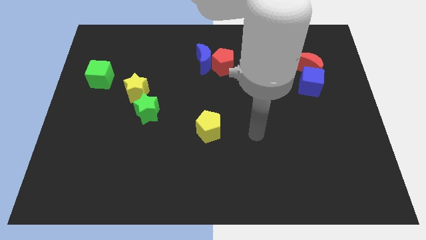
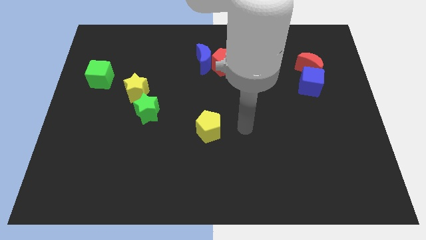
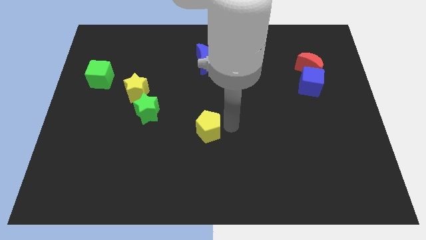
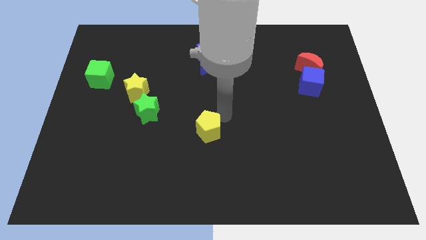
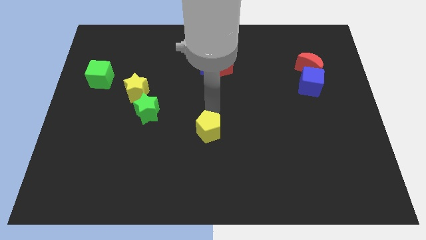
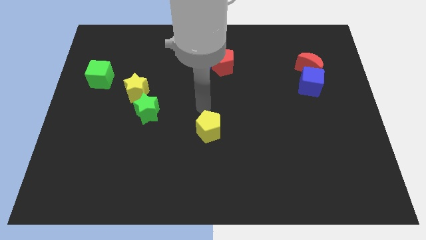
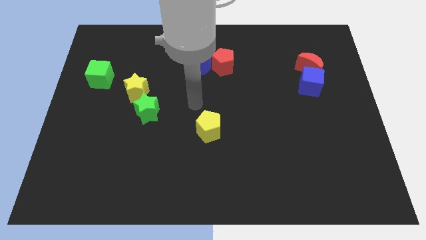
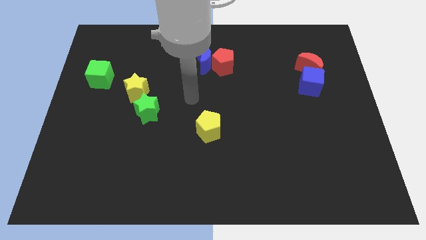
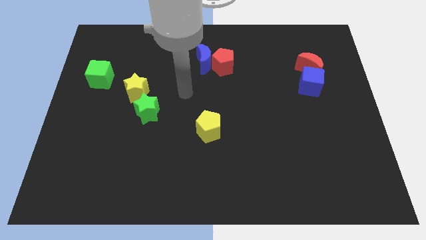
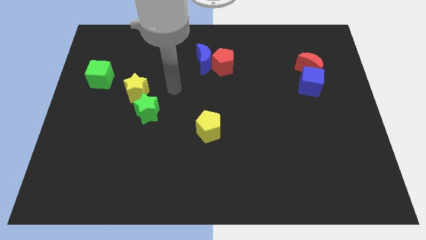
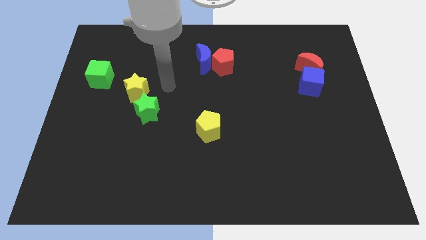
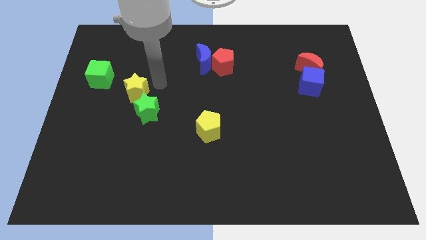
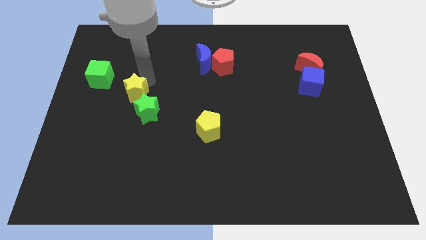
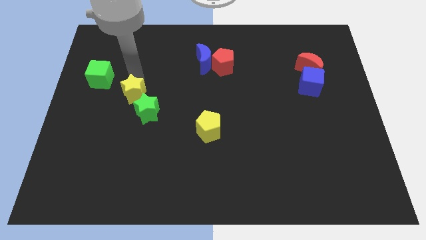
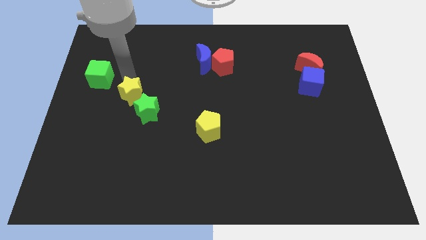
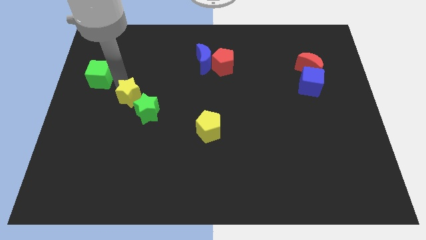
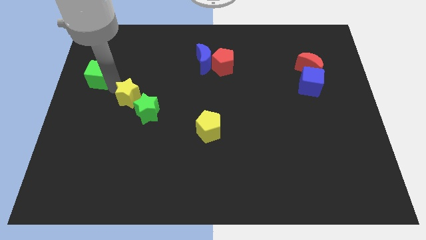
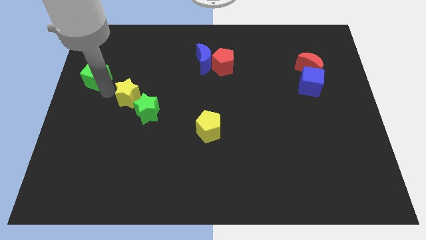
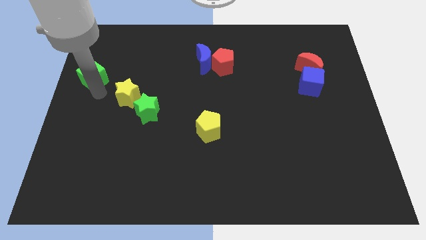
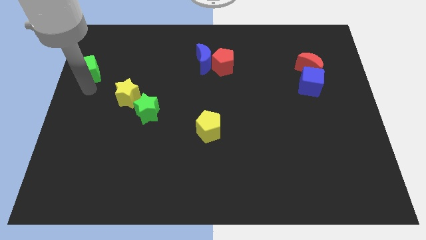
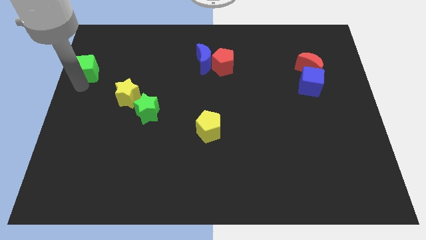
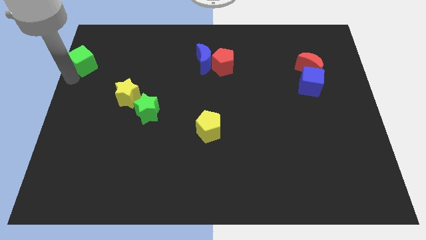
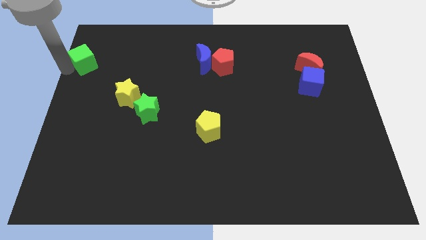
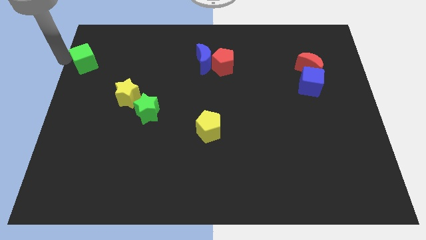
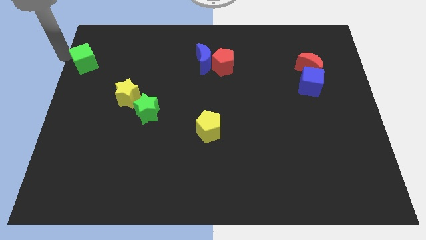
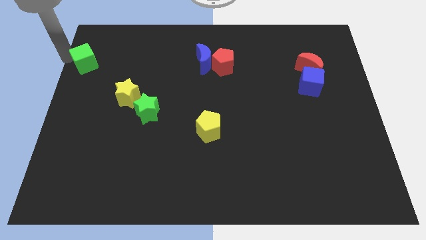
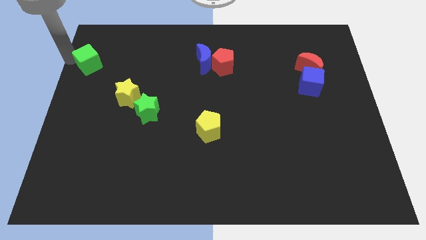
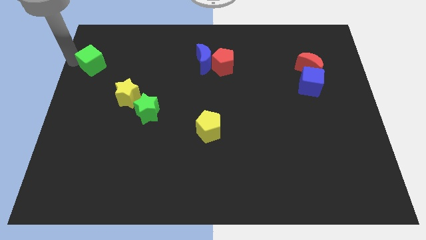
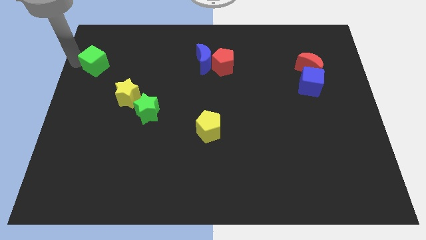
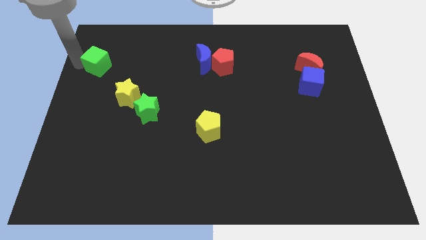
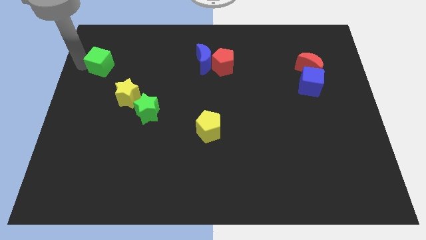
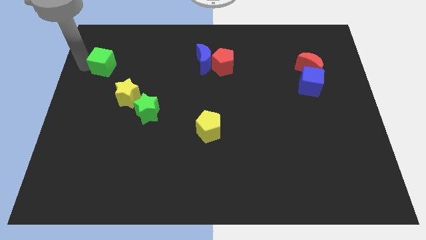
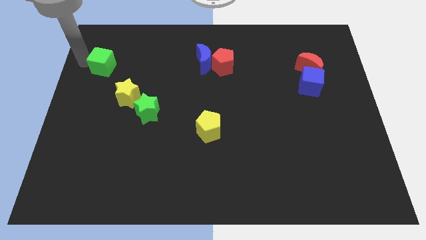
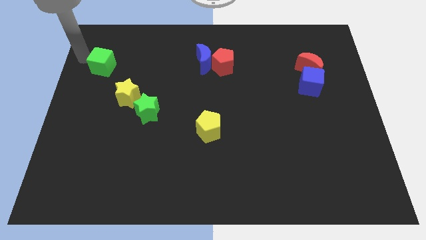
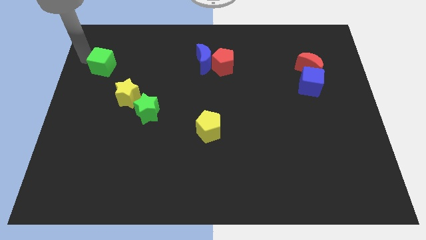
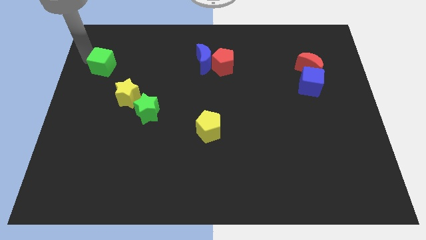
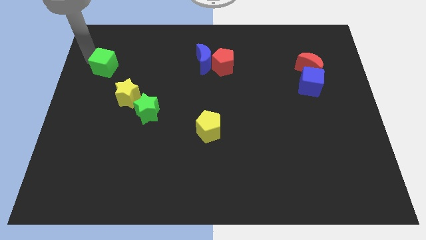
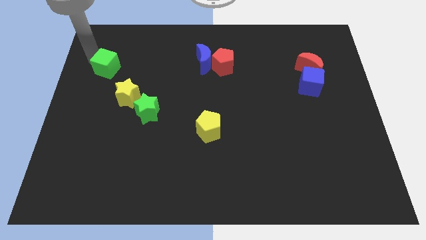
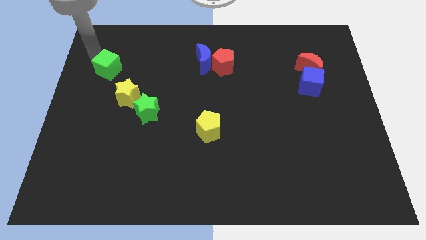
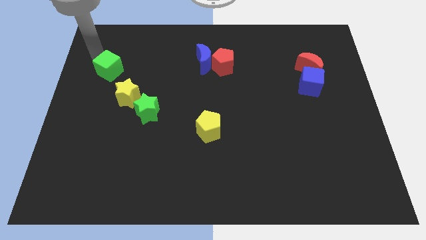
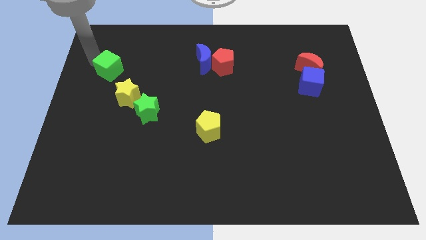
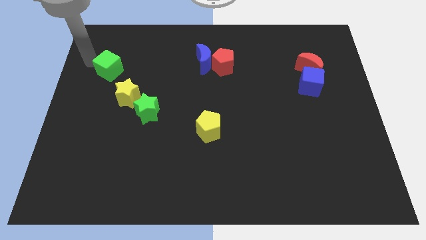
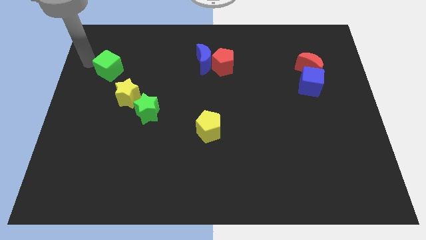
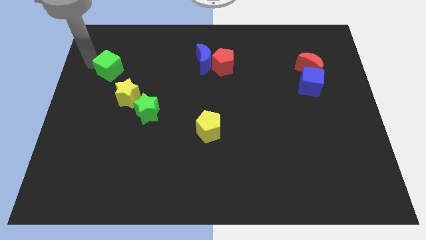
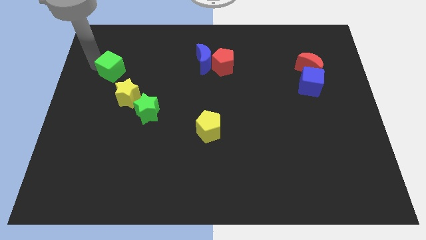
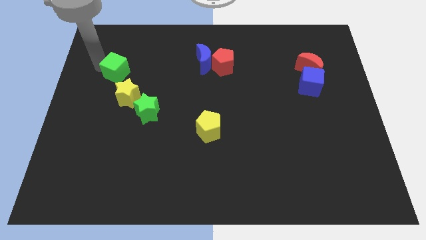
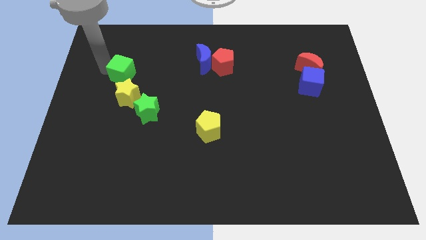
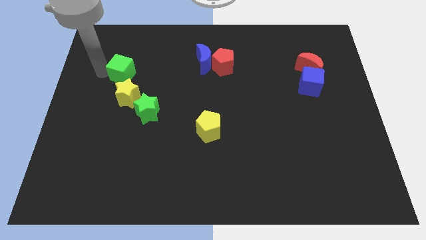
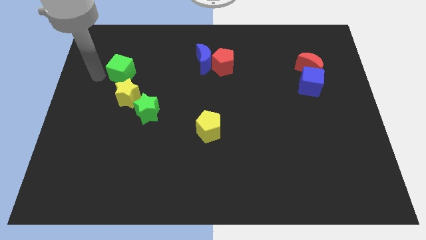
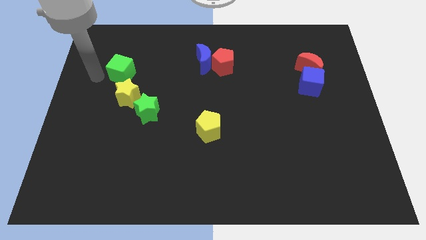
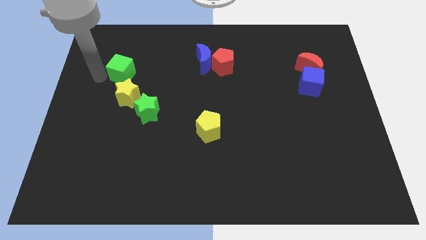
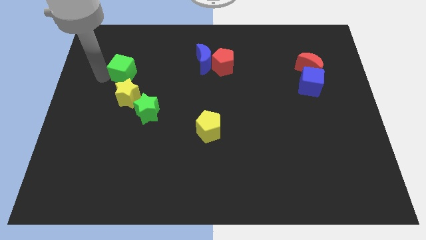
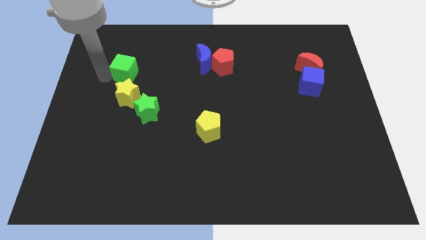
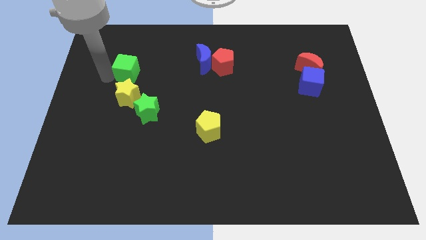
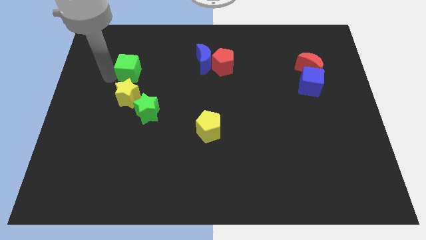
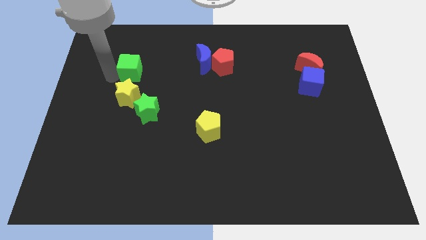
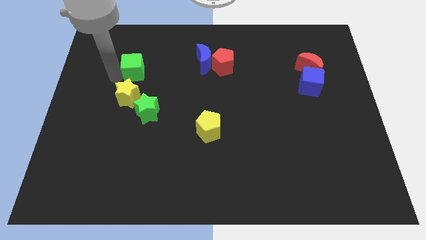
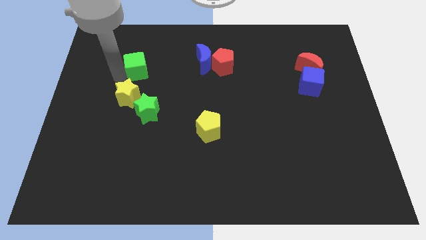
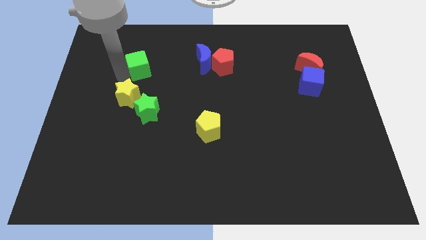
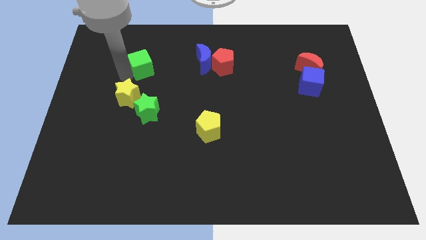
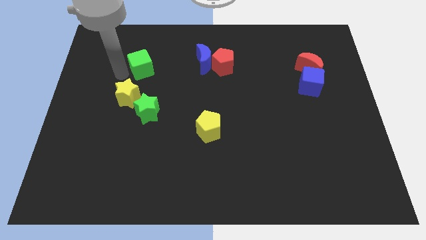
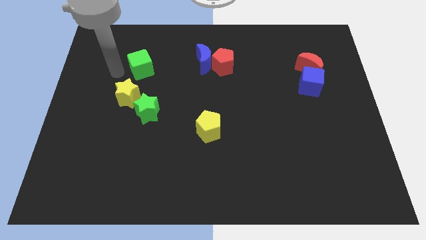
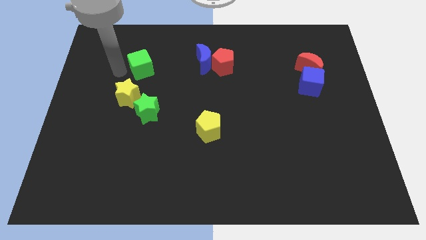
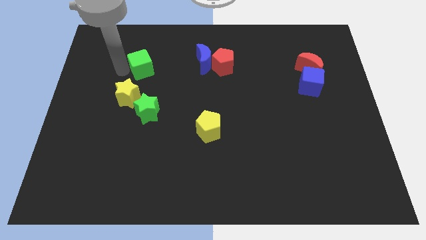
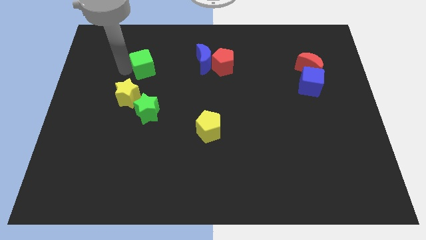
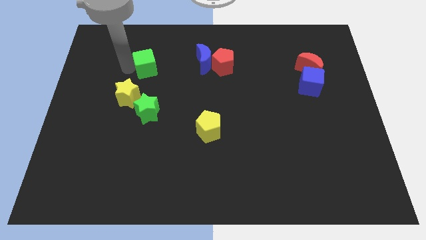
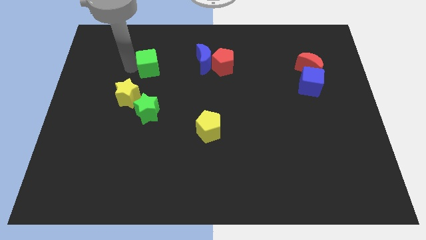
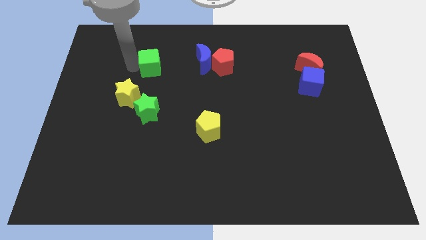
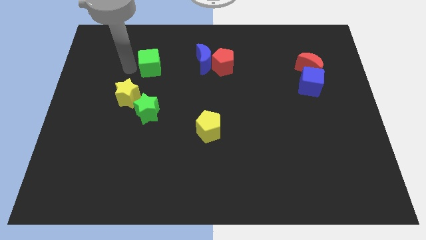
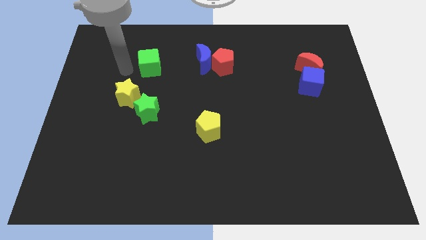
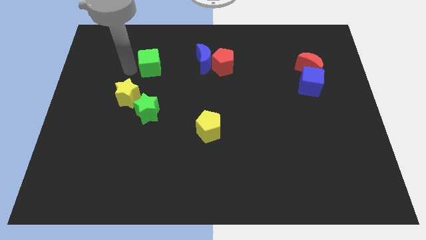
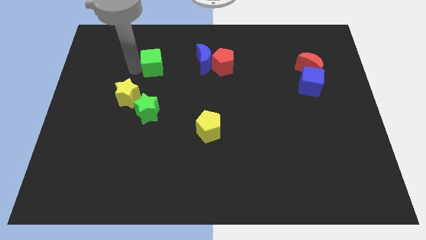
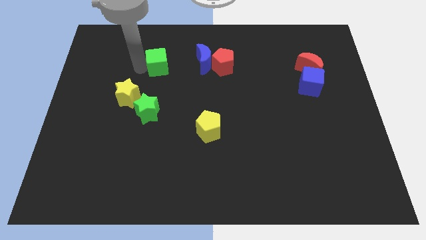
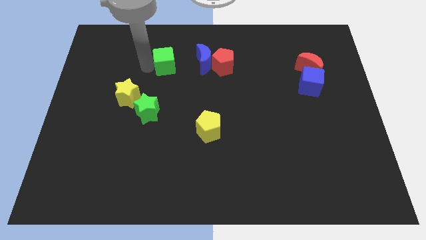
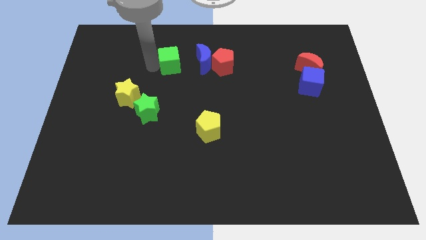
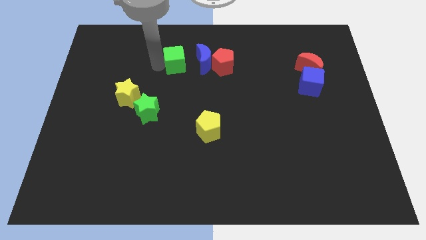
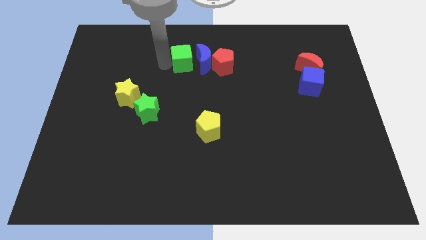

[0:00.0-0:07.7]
move the green cube towards the blue moon

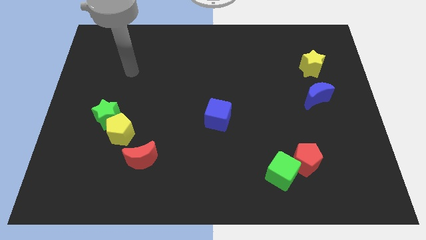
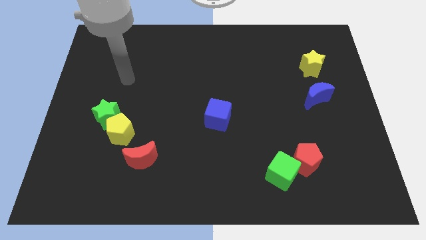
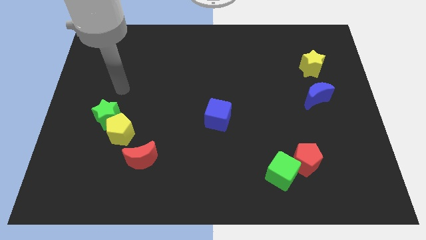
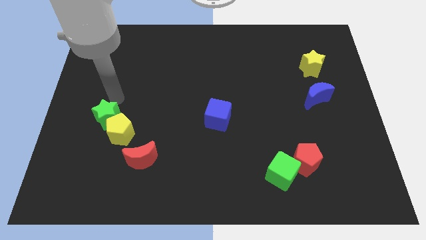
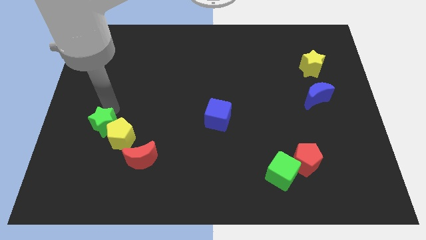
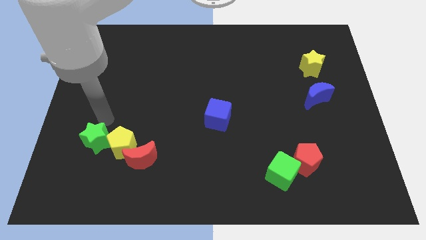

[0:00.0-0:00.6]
push the yellow pentagon to the red moon
